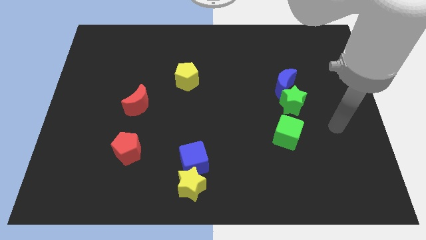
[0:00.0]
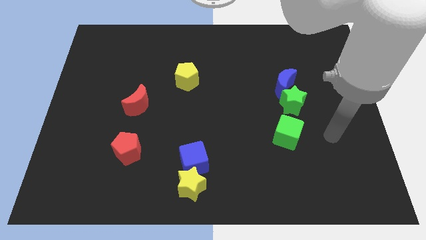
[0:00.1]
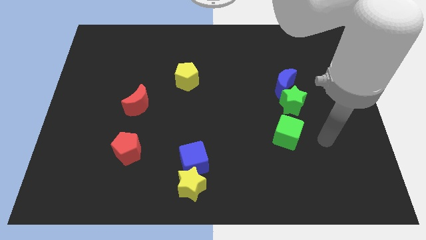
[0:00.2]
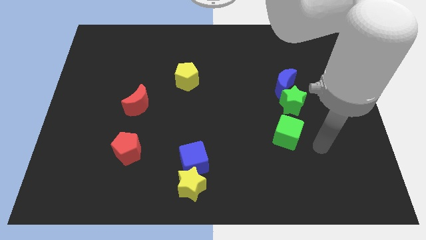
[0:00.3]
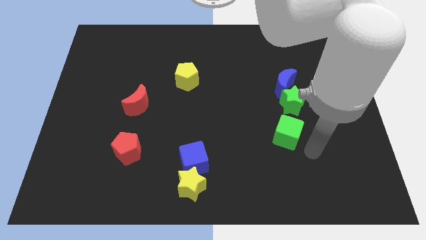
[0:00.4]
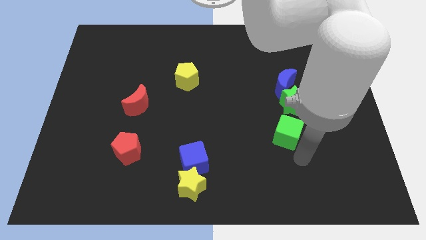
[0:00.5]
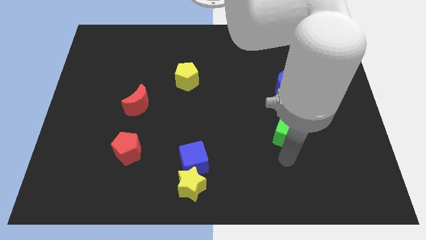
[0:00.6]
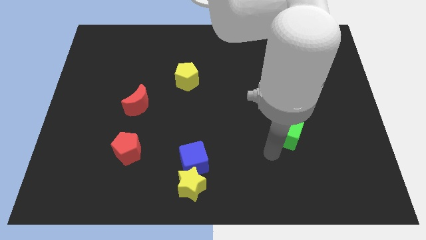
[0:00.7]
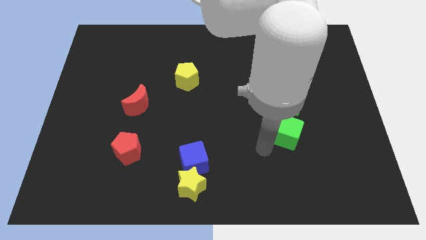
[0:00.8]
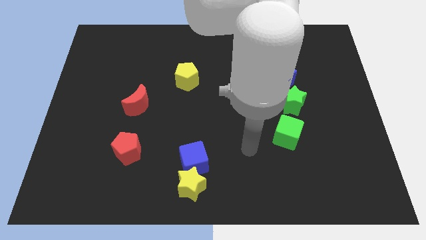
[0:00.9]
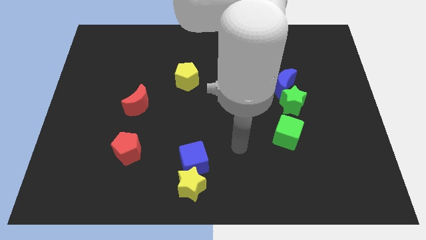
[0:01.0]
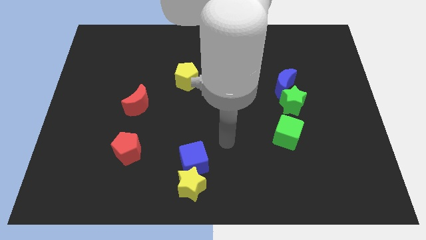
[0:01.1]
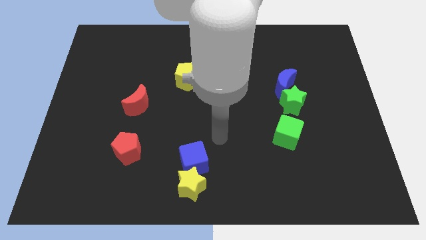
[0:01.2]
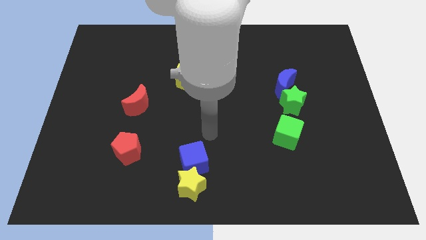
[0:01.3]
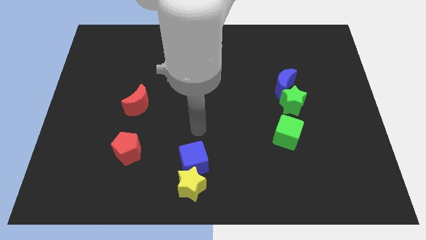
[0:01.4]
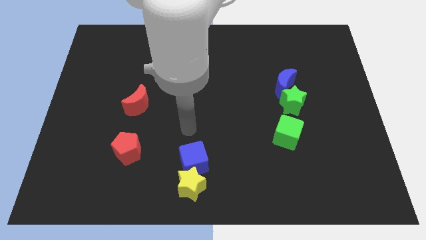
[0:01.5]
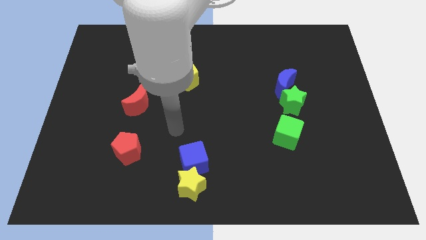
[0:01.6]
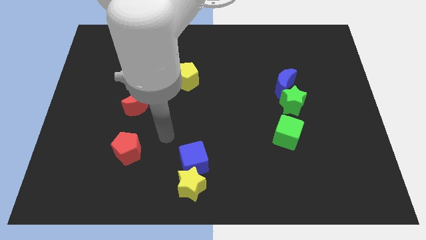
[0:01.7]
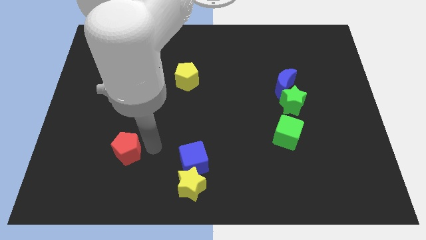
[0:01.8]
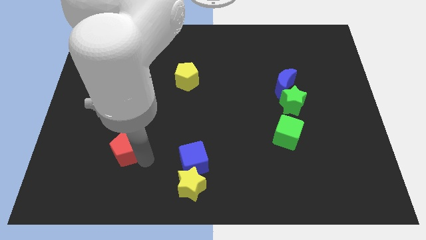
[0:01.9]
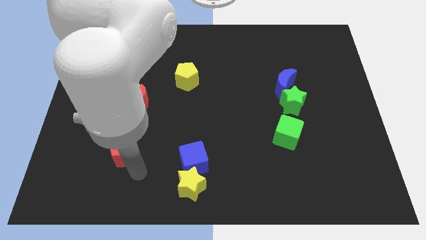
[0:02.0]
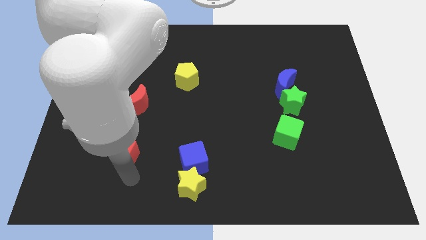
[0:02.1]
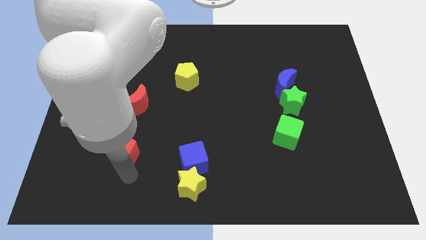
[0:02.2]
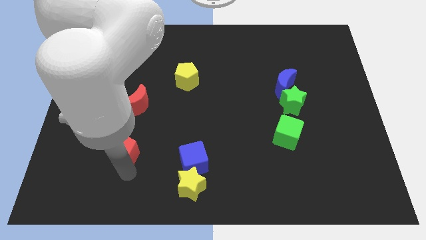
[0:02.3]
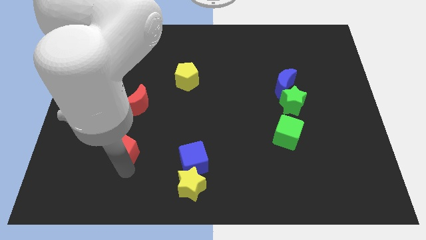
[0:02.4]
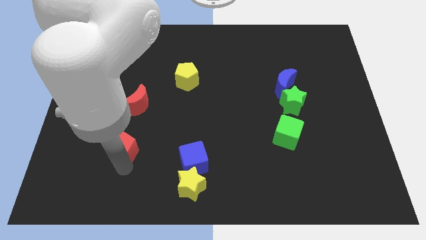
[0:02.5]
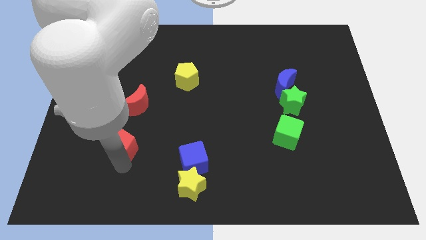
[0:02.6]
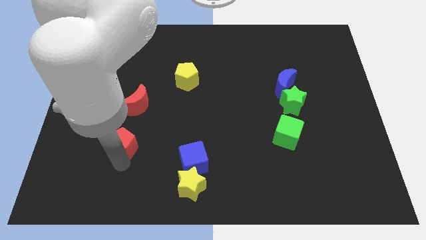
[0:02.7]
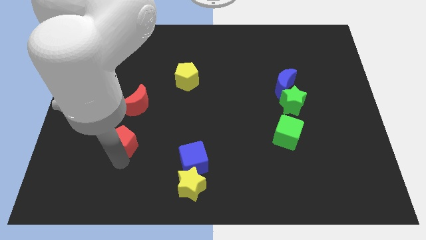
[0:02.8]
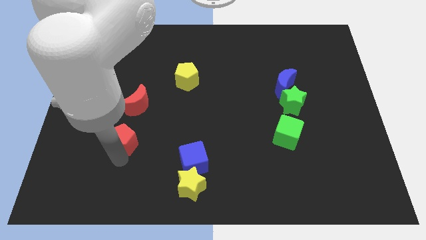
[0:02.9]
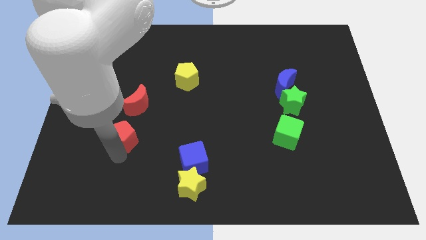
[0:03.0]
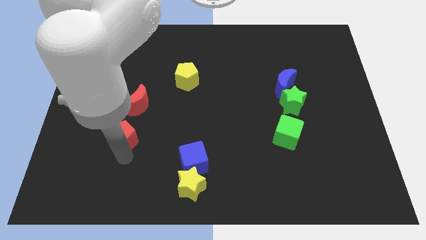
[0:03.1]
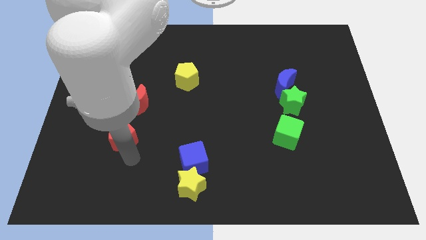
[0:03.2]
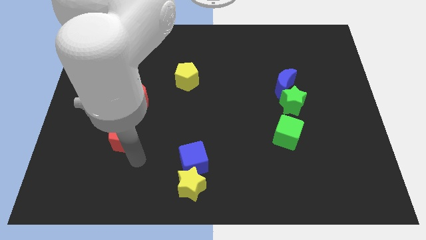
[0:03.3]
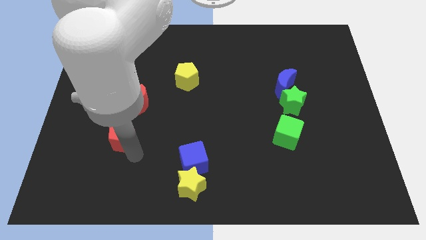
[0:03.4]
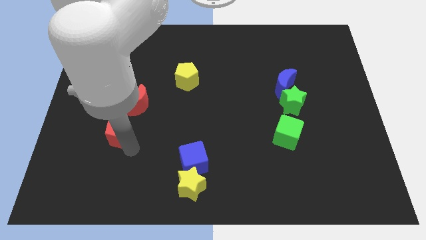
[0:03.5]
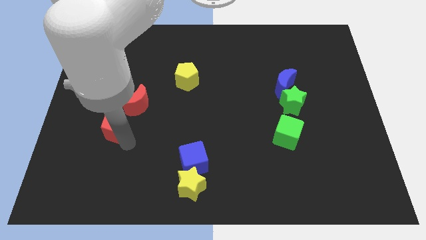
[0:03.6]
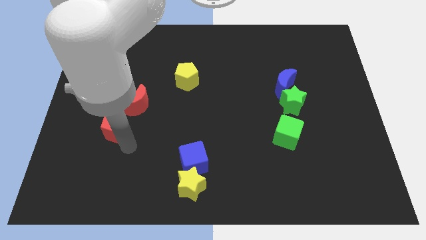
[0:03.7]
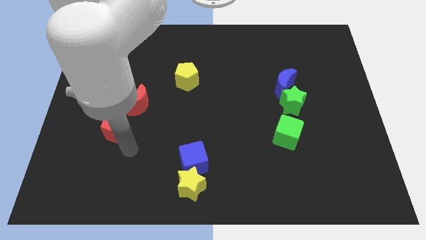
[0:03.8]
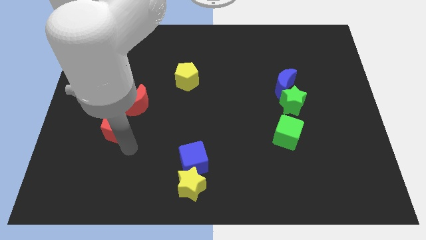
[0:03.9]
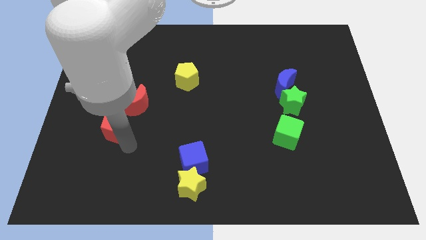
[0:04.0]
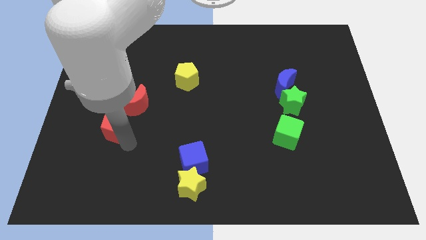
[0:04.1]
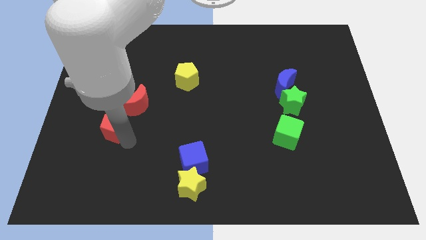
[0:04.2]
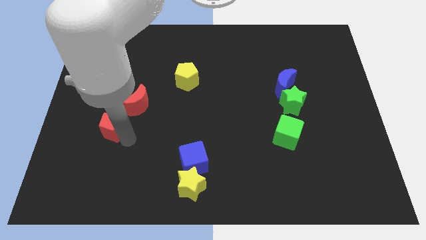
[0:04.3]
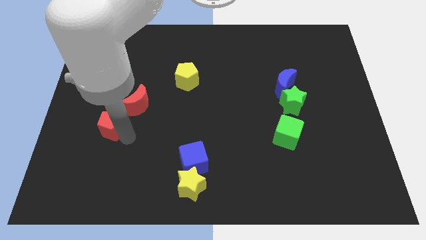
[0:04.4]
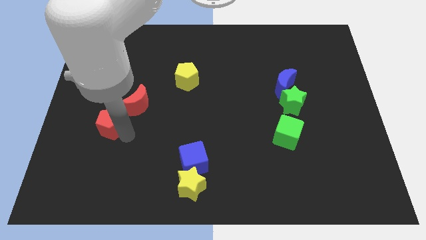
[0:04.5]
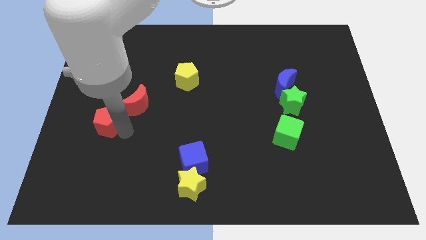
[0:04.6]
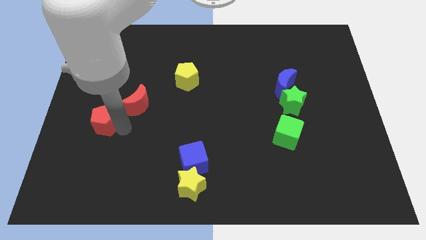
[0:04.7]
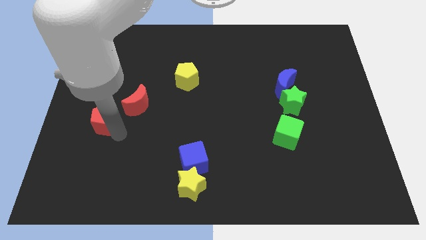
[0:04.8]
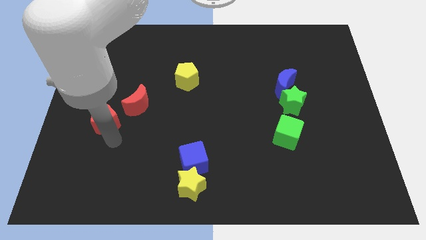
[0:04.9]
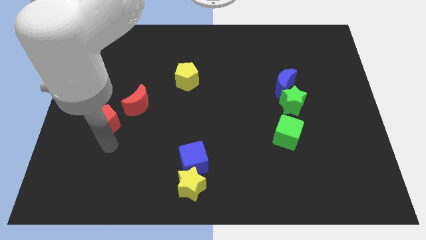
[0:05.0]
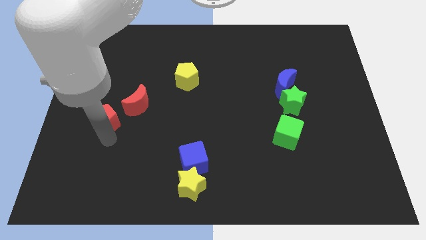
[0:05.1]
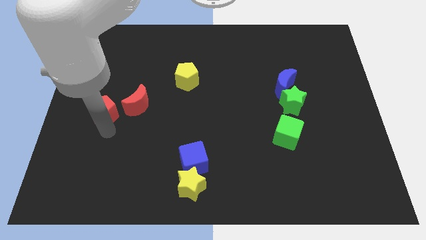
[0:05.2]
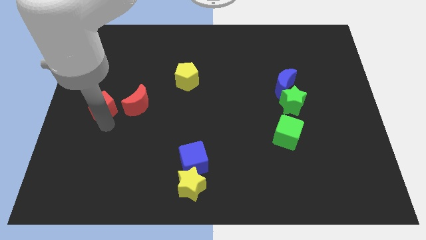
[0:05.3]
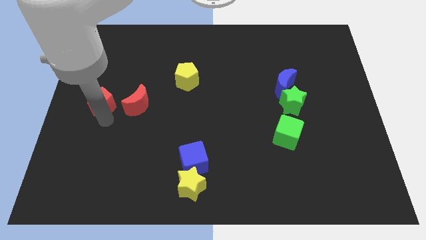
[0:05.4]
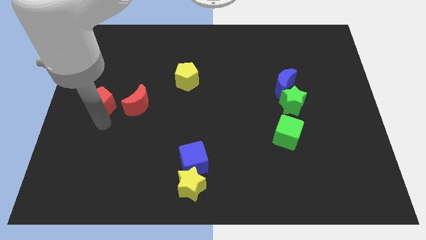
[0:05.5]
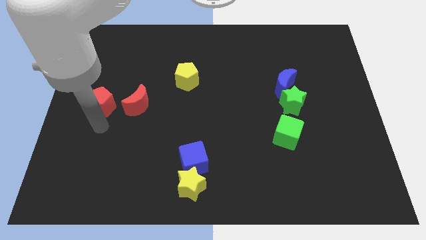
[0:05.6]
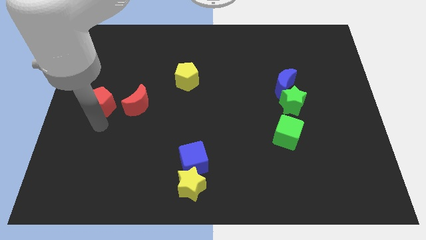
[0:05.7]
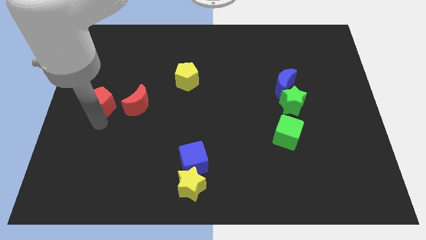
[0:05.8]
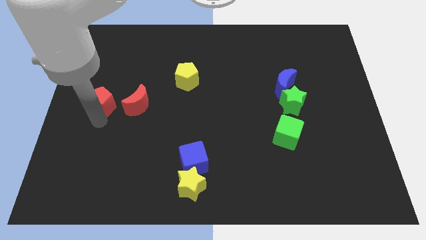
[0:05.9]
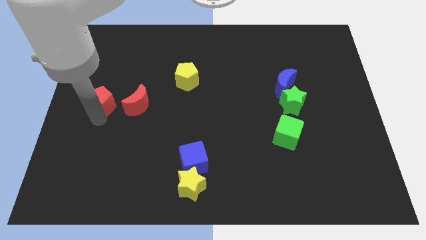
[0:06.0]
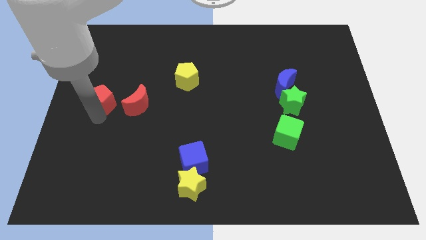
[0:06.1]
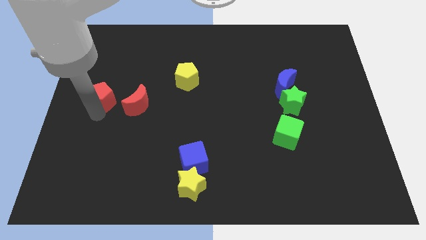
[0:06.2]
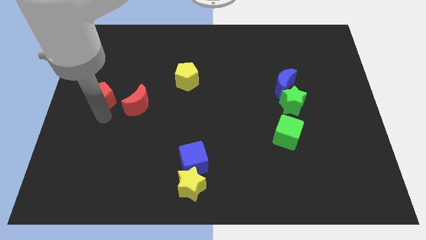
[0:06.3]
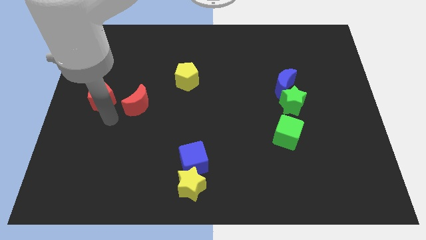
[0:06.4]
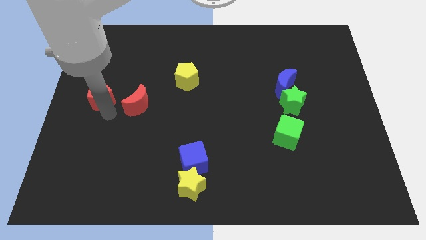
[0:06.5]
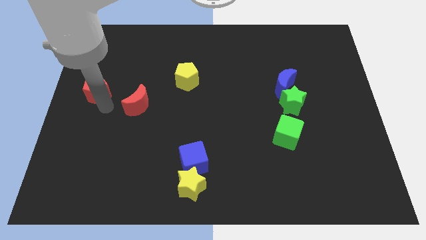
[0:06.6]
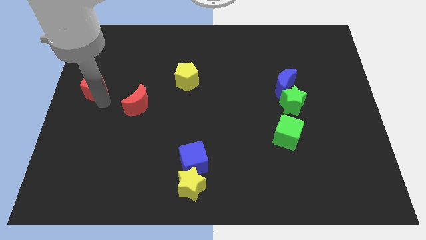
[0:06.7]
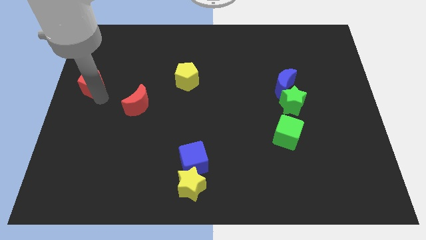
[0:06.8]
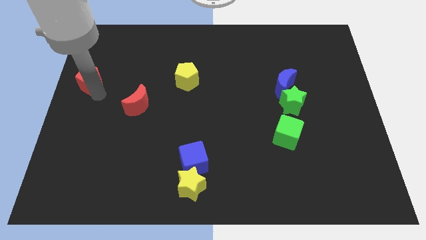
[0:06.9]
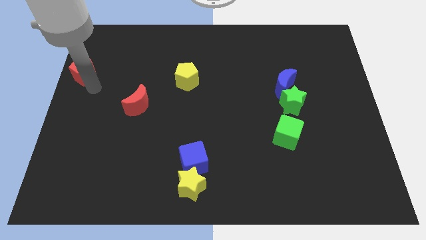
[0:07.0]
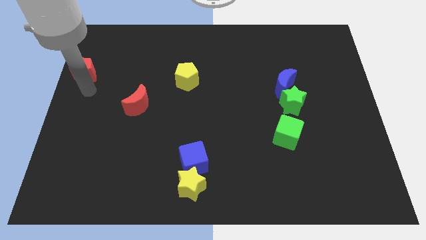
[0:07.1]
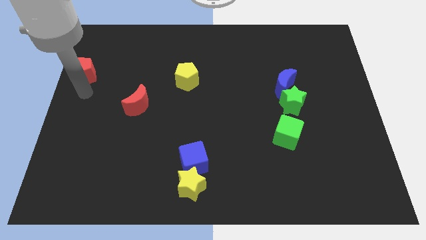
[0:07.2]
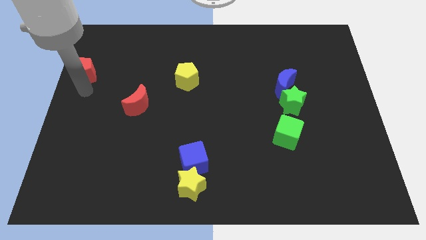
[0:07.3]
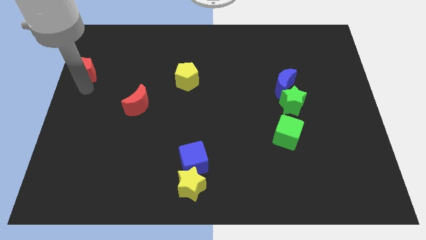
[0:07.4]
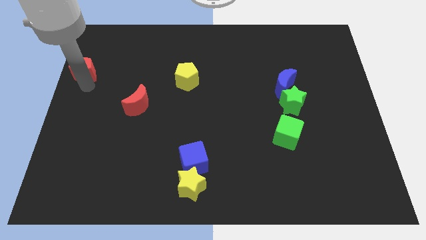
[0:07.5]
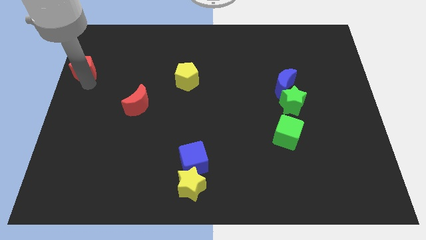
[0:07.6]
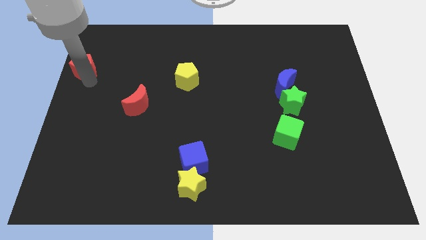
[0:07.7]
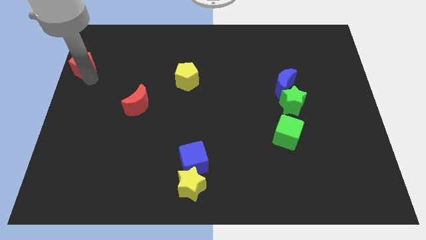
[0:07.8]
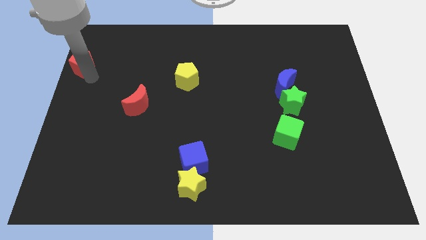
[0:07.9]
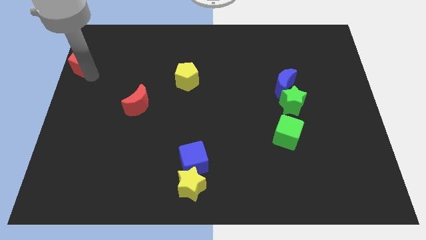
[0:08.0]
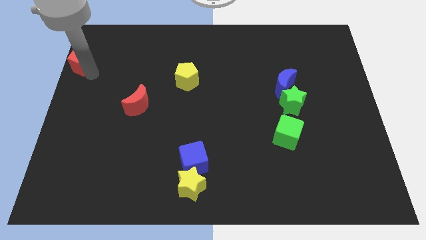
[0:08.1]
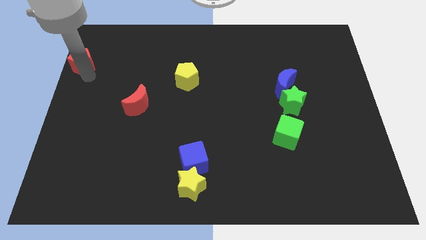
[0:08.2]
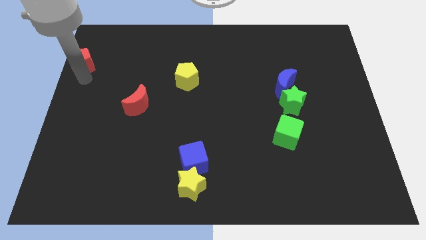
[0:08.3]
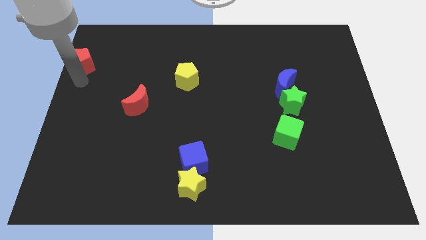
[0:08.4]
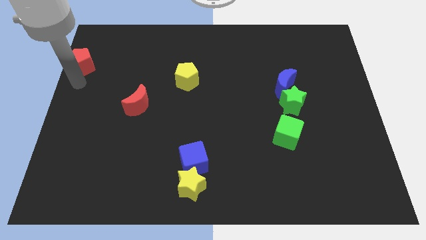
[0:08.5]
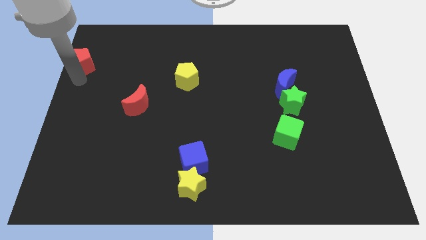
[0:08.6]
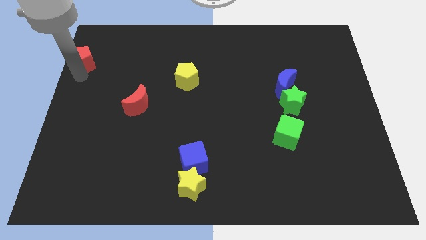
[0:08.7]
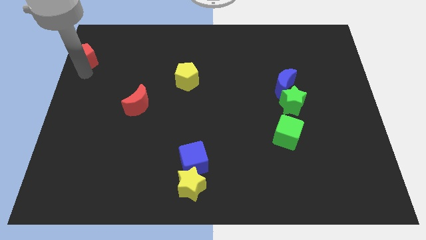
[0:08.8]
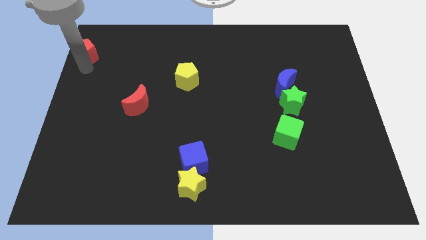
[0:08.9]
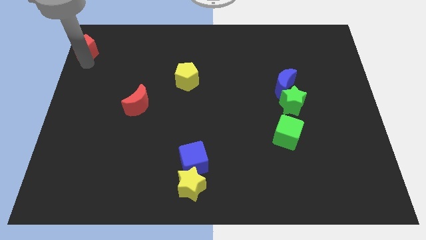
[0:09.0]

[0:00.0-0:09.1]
put the red pentagon to the top left
